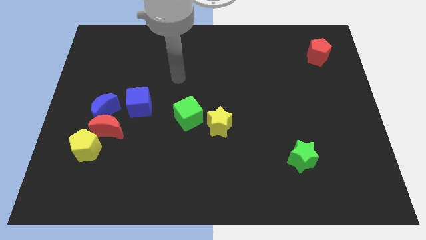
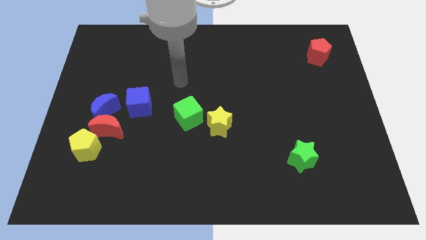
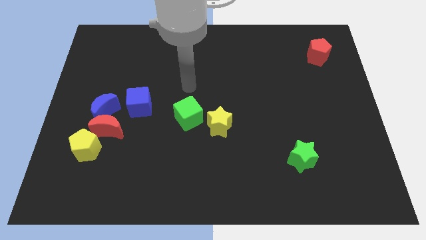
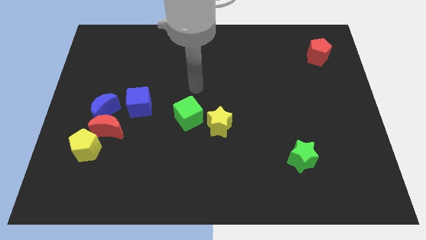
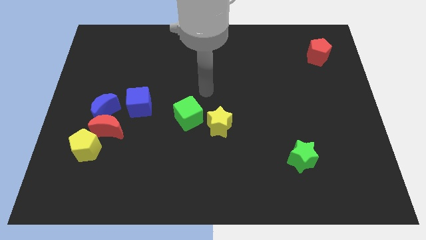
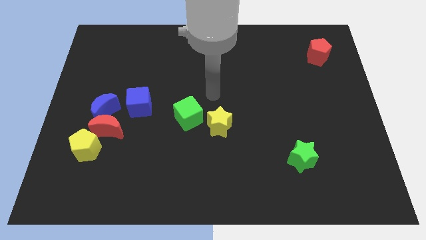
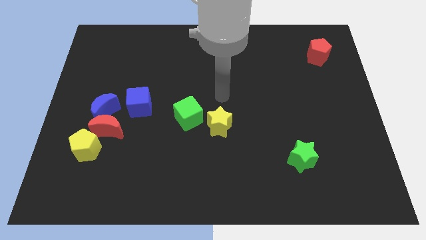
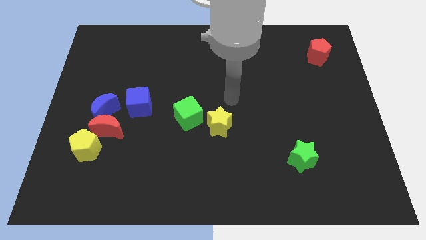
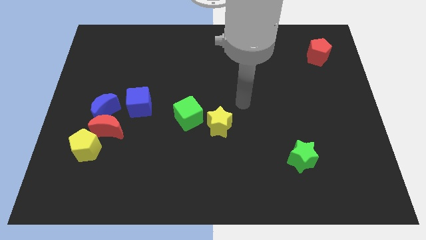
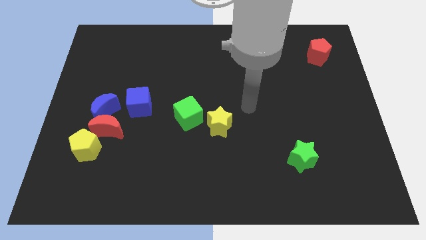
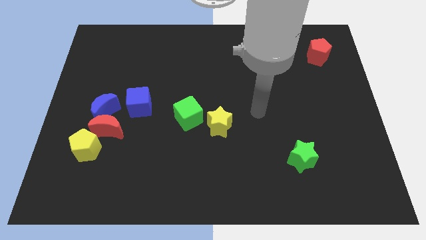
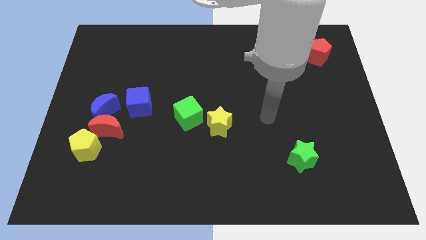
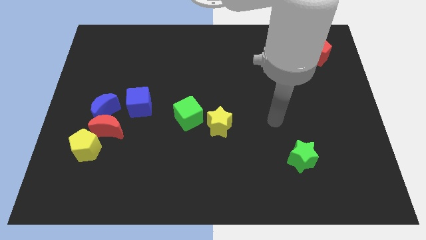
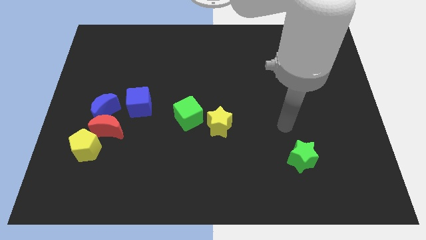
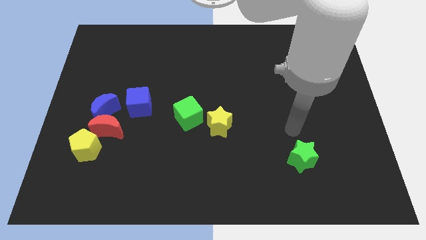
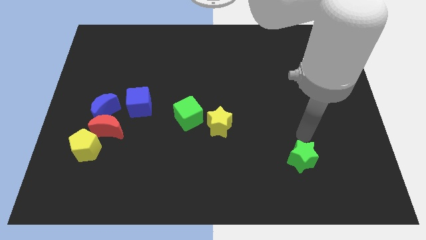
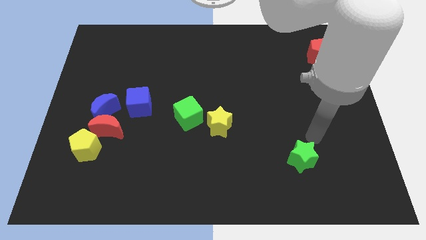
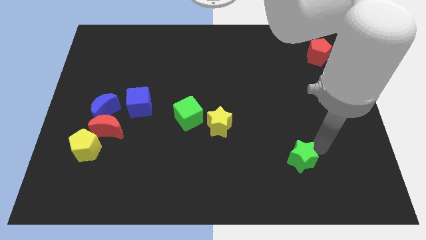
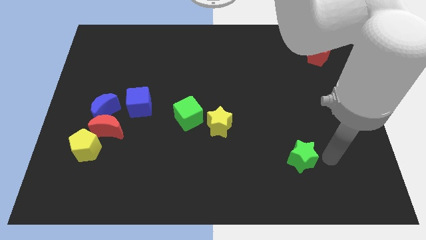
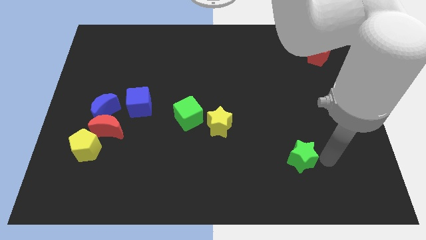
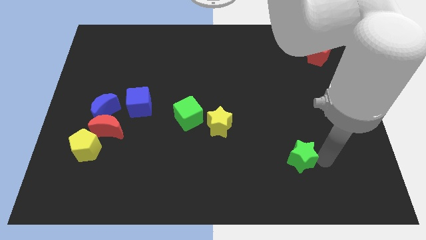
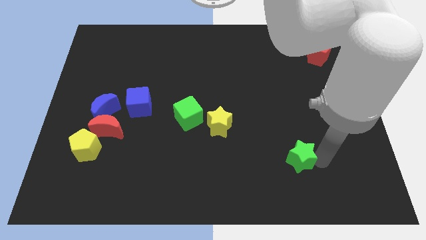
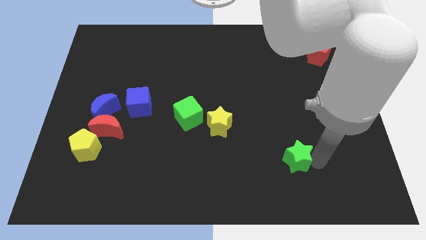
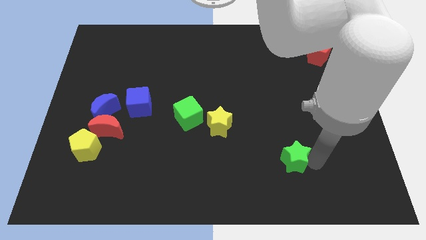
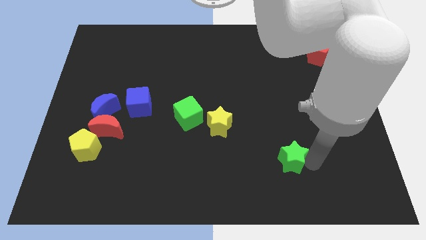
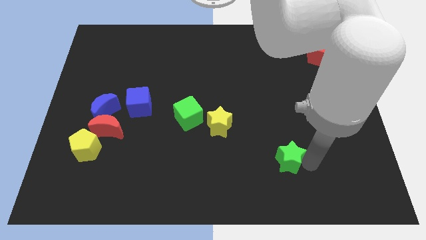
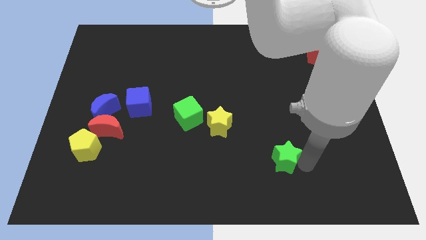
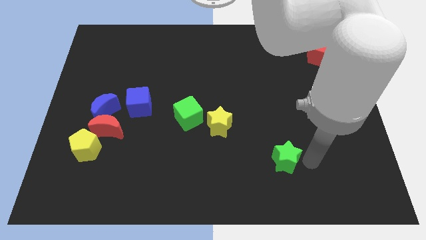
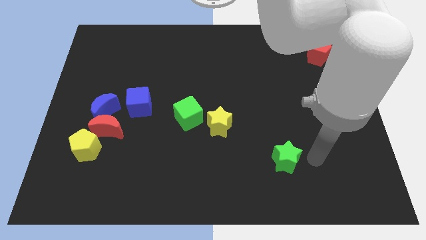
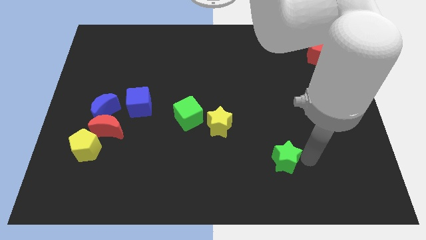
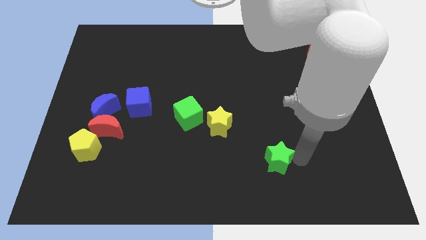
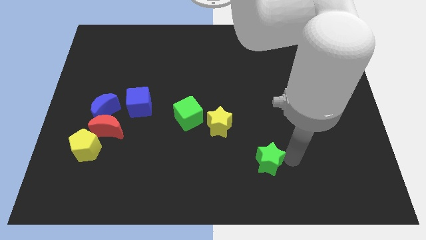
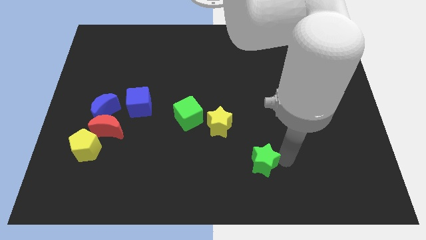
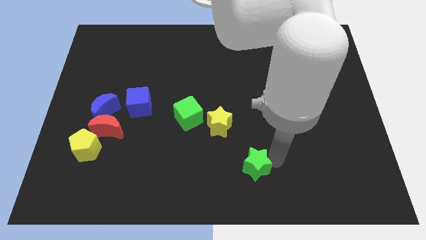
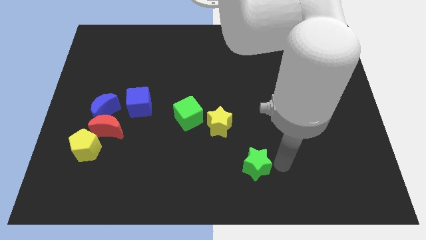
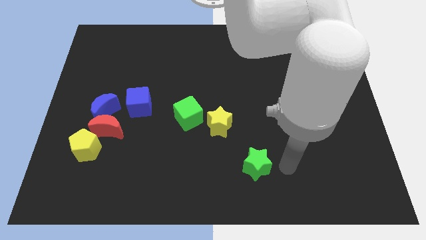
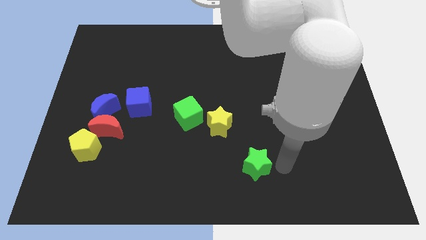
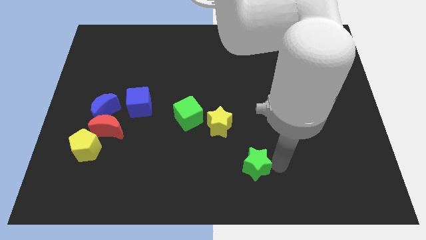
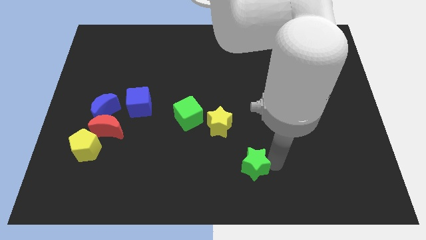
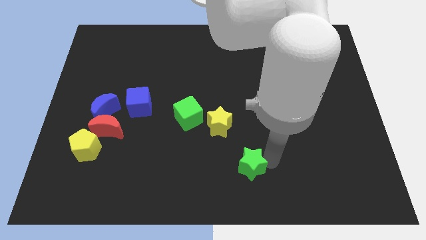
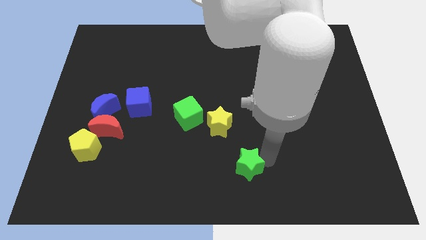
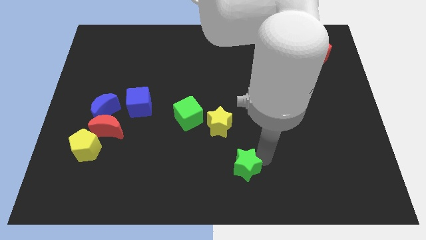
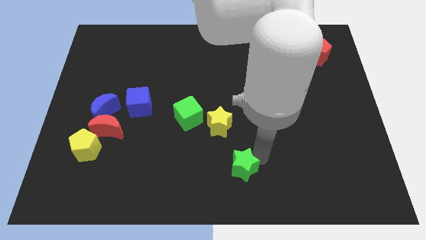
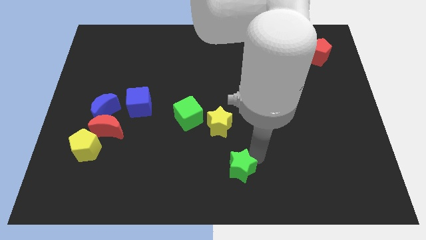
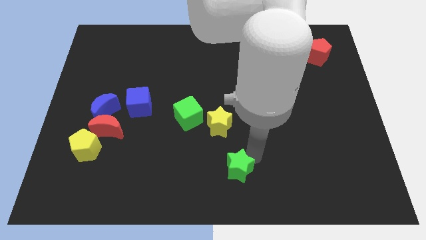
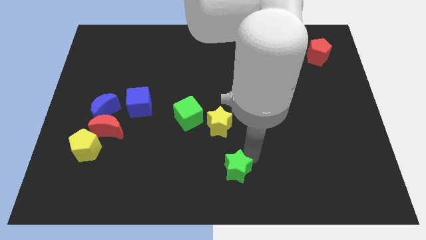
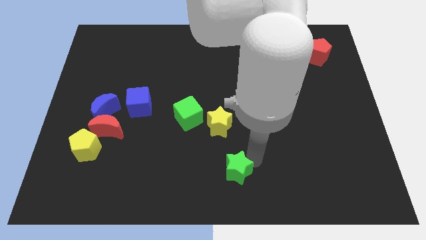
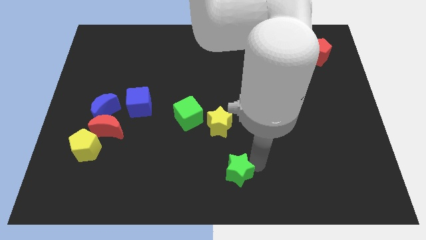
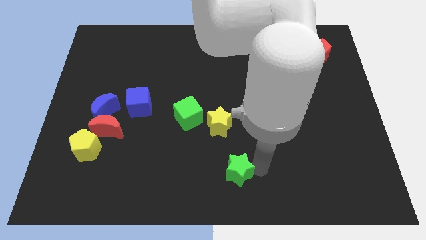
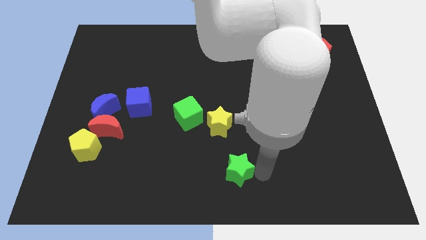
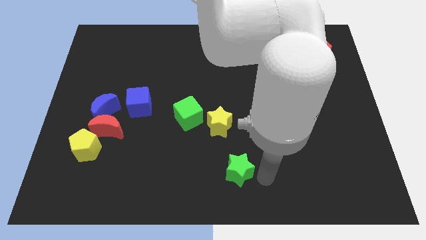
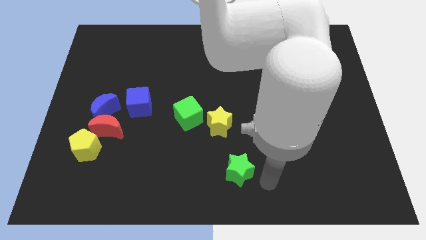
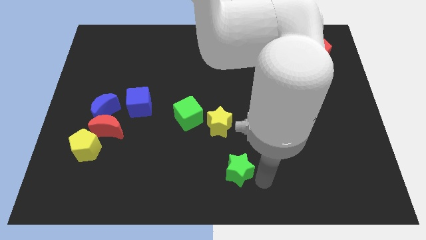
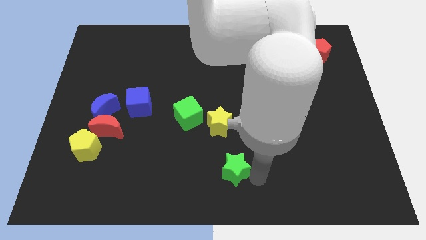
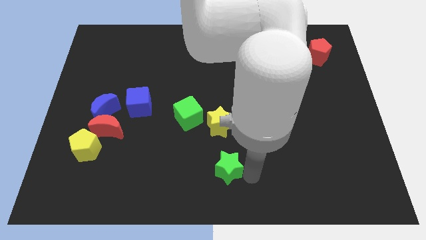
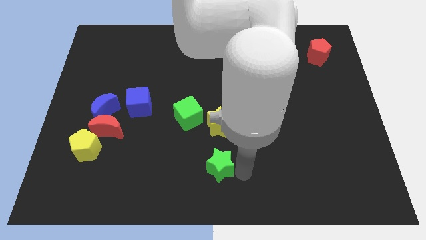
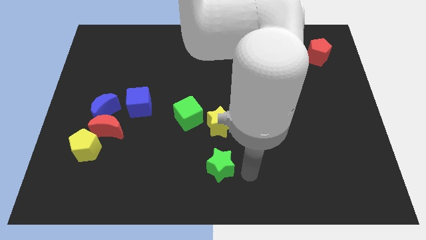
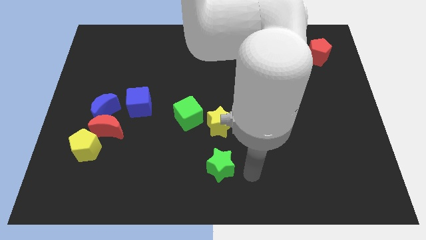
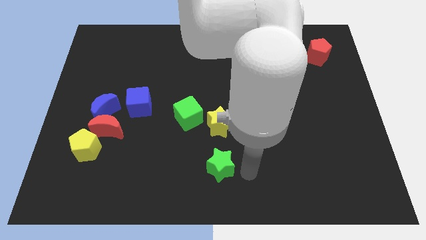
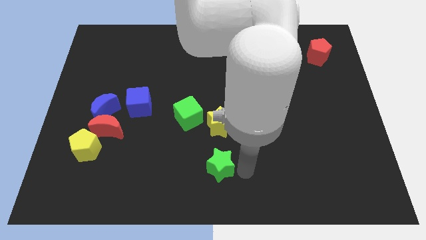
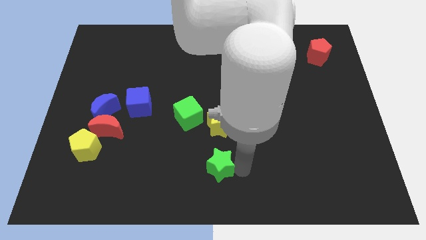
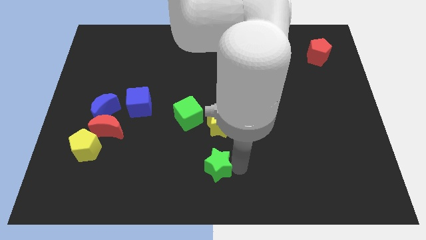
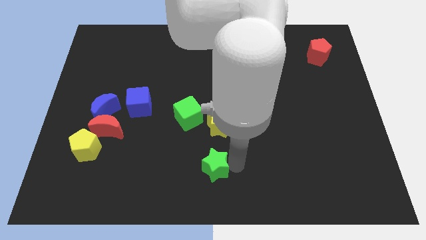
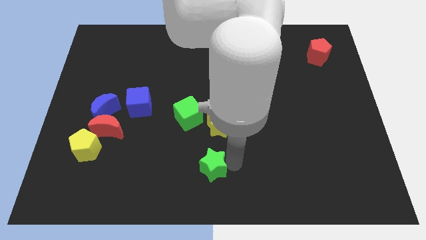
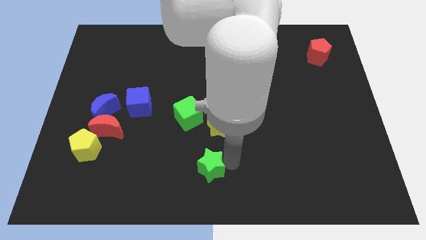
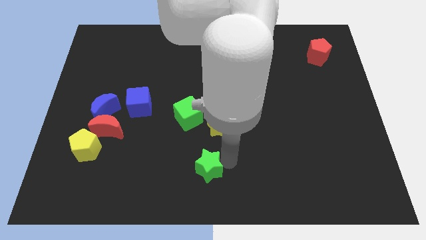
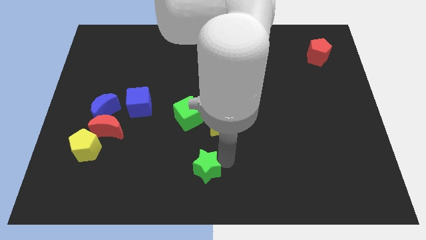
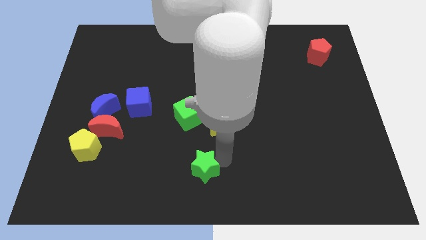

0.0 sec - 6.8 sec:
move the green star to the left

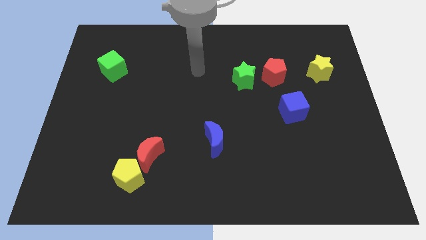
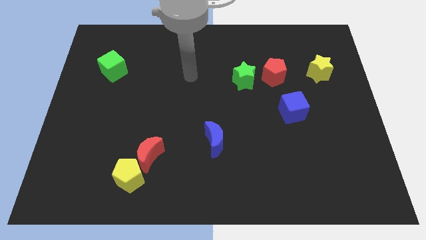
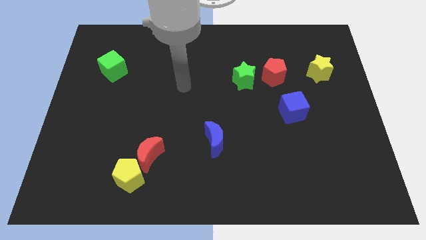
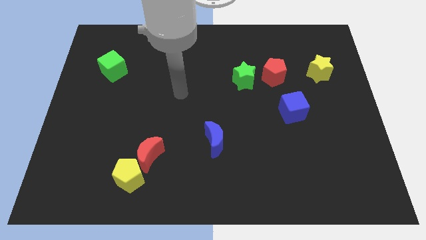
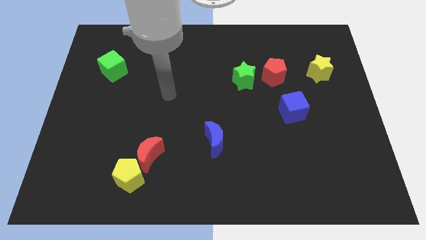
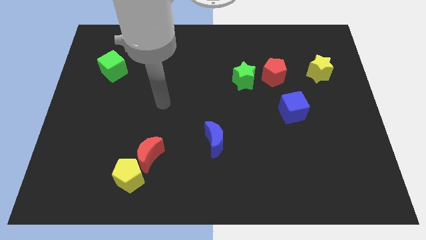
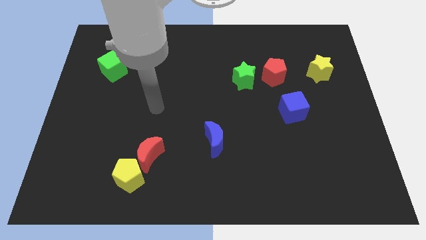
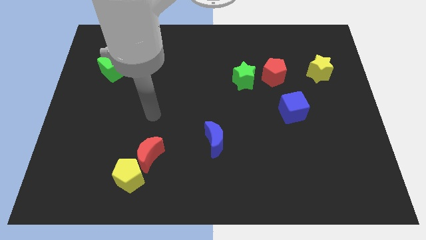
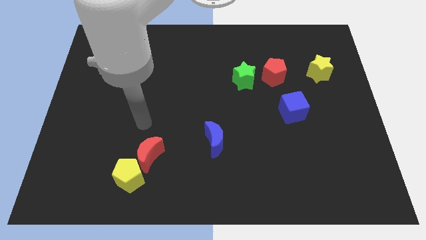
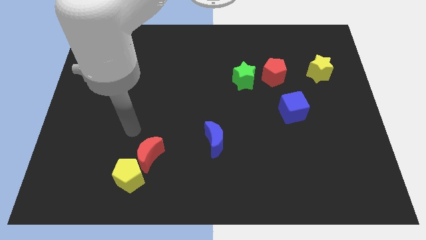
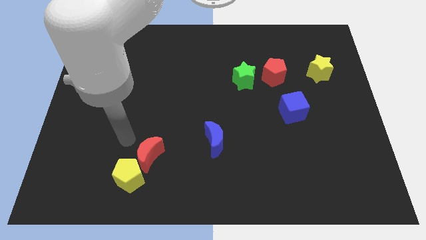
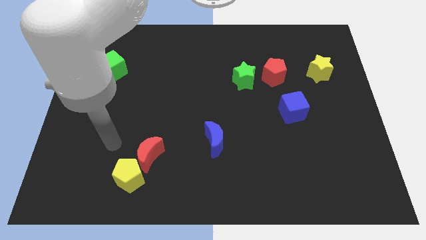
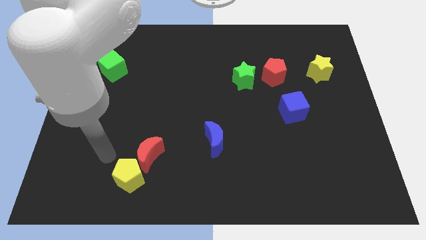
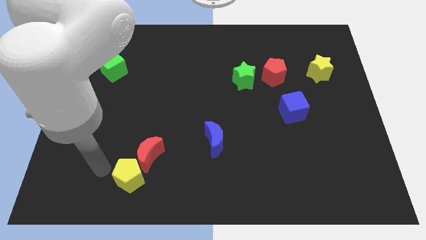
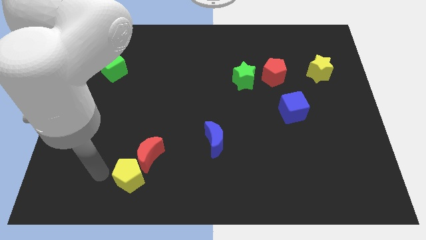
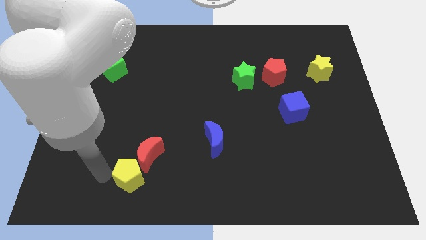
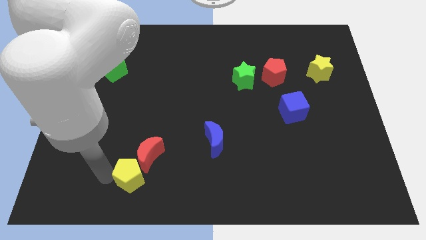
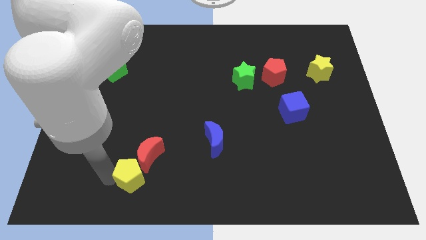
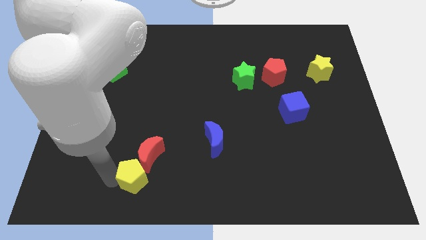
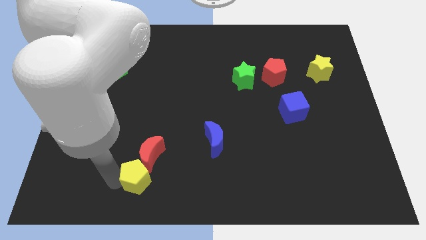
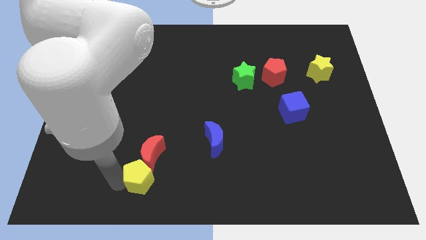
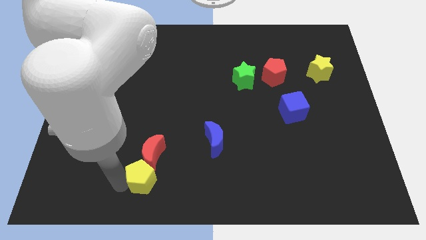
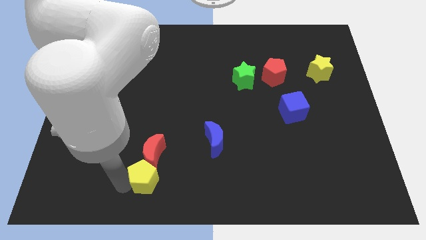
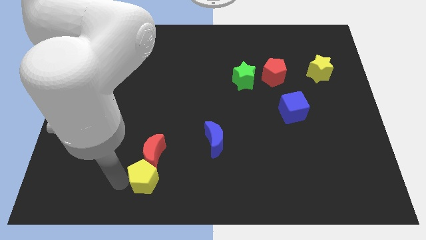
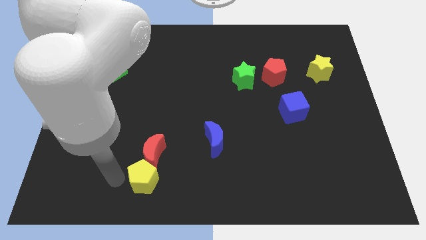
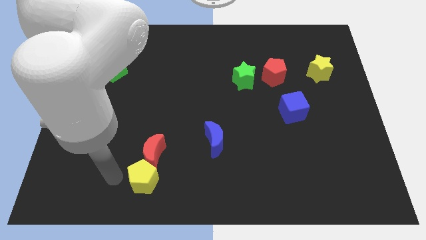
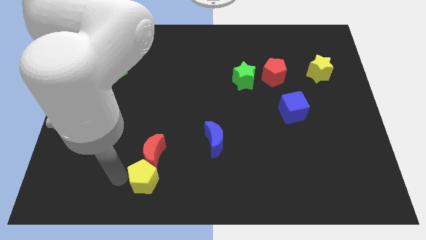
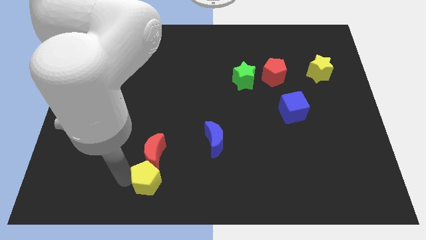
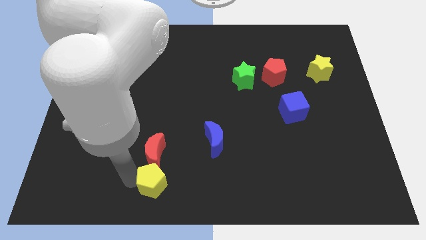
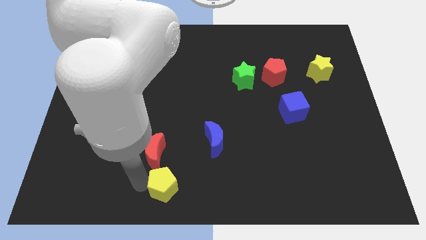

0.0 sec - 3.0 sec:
slightly push the yellow pentagon to the right
